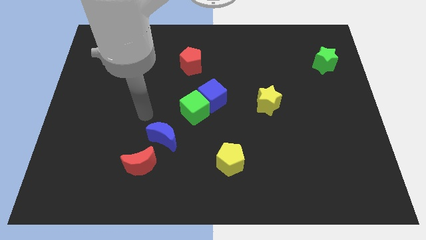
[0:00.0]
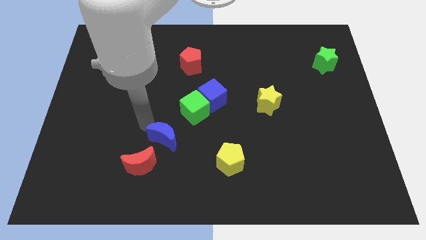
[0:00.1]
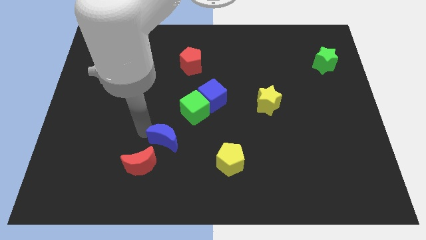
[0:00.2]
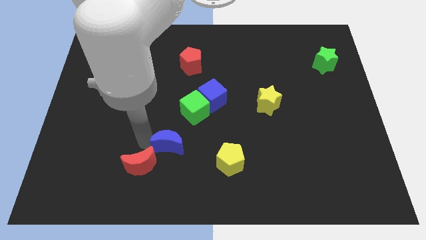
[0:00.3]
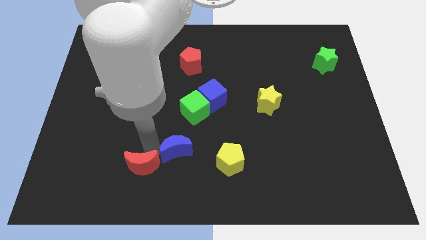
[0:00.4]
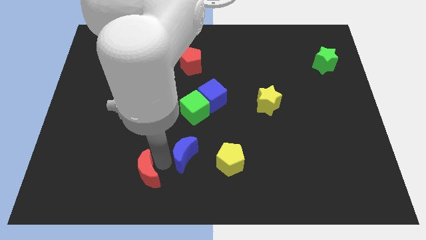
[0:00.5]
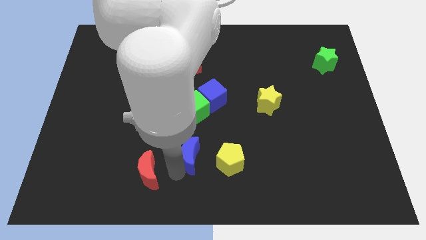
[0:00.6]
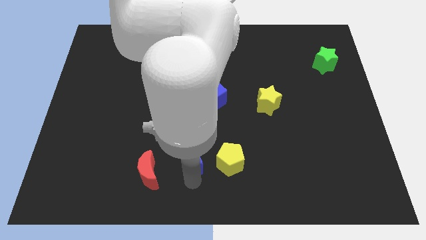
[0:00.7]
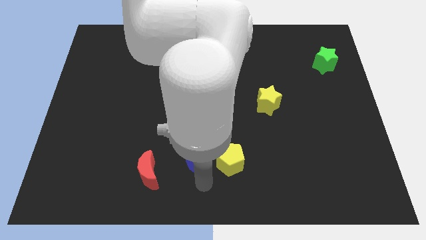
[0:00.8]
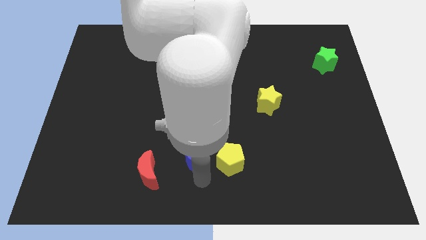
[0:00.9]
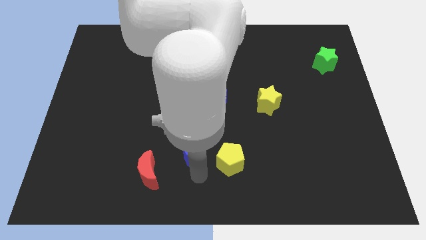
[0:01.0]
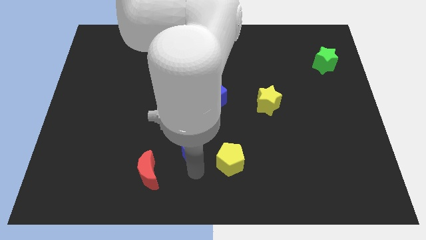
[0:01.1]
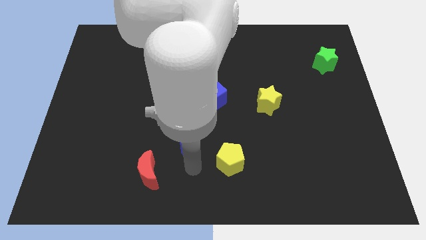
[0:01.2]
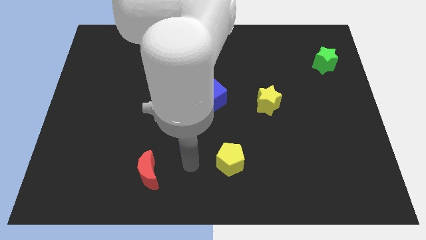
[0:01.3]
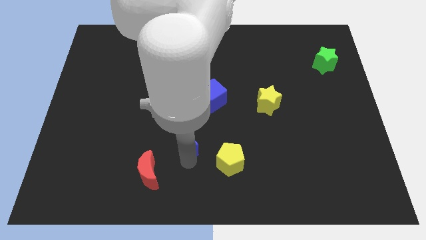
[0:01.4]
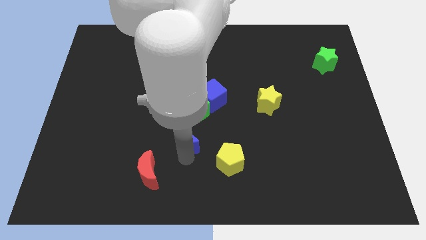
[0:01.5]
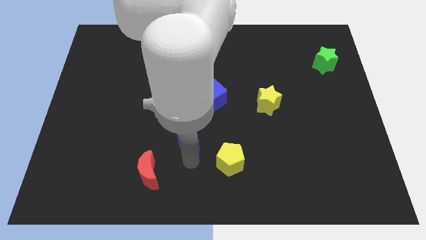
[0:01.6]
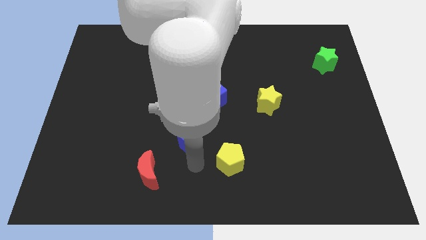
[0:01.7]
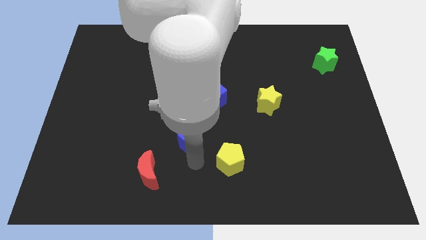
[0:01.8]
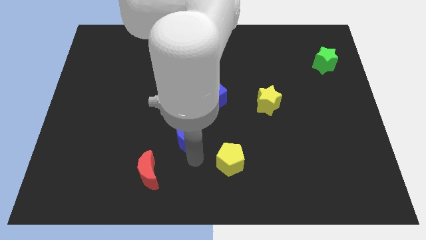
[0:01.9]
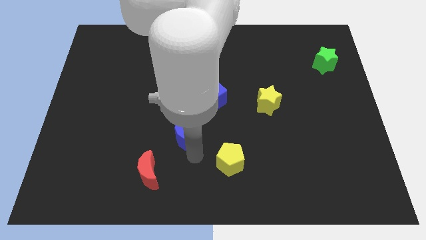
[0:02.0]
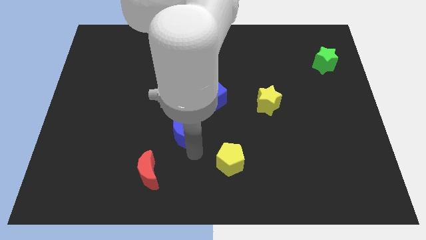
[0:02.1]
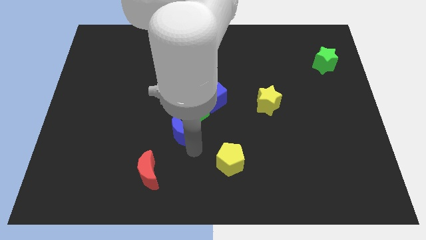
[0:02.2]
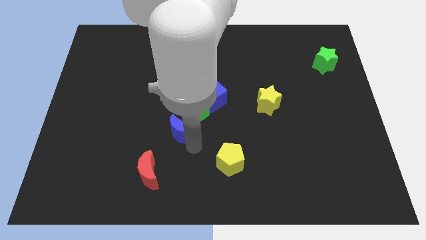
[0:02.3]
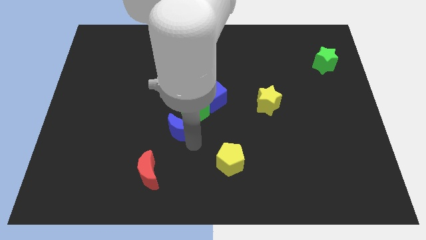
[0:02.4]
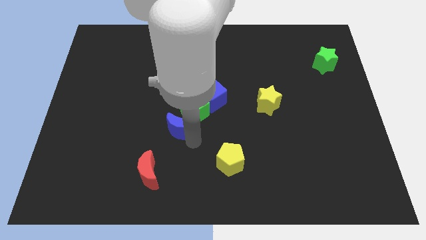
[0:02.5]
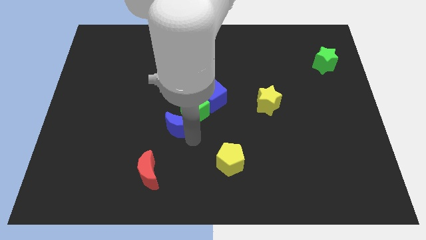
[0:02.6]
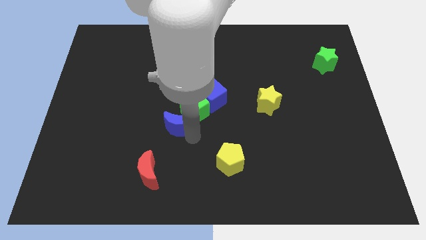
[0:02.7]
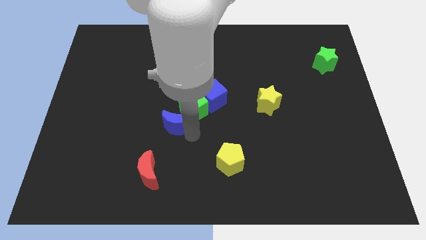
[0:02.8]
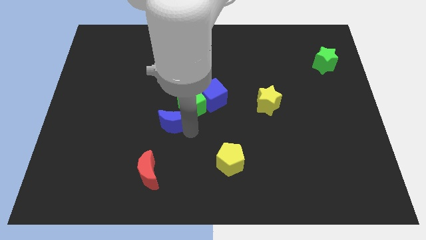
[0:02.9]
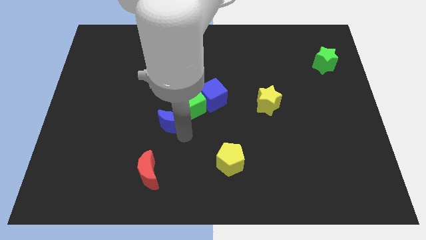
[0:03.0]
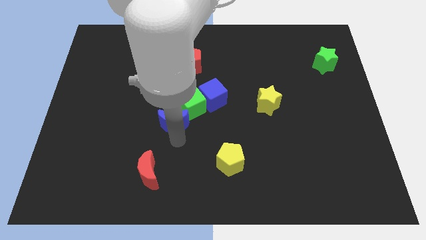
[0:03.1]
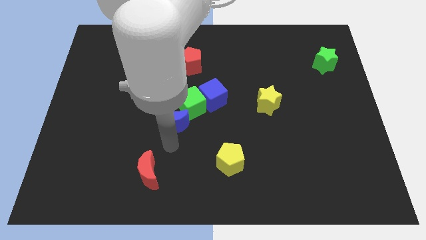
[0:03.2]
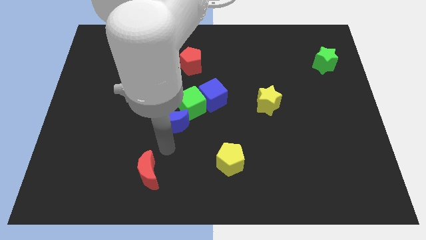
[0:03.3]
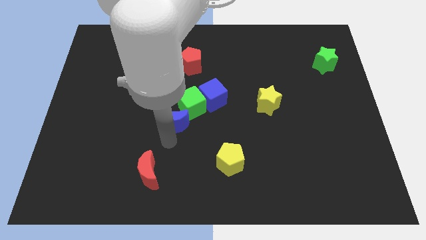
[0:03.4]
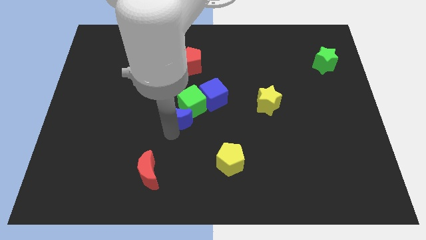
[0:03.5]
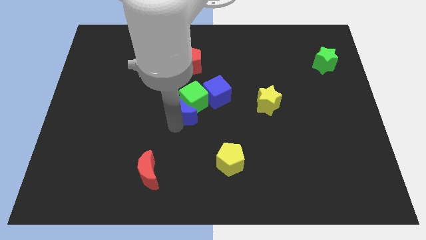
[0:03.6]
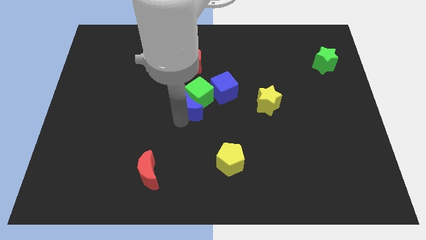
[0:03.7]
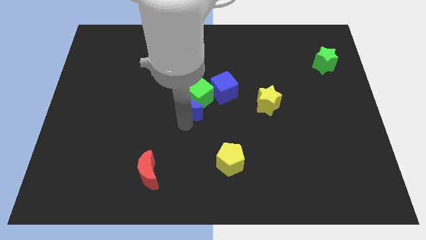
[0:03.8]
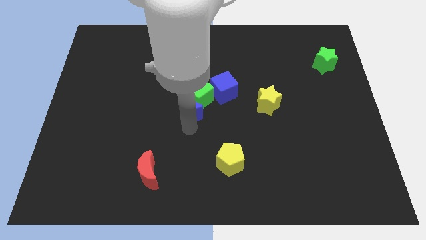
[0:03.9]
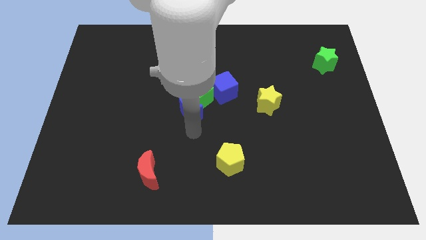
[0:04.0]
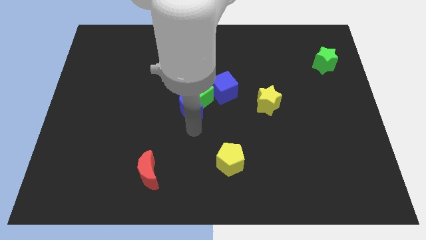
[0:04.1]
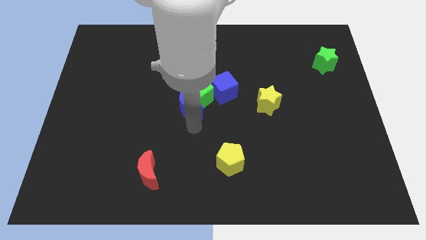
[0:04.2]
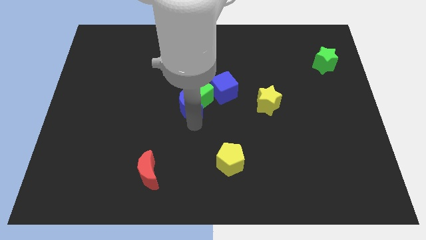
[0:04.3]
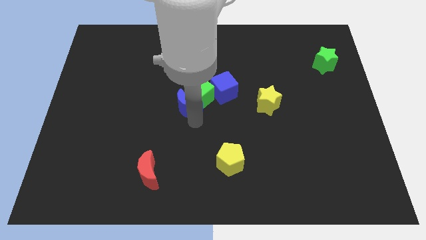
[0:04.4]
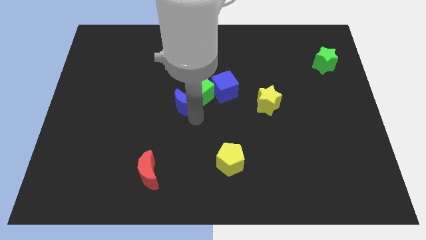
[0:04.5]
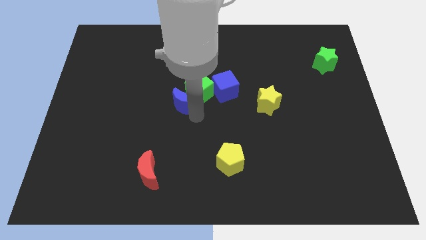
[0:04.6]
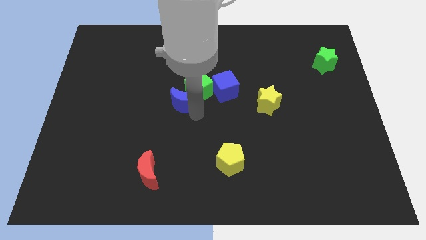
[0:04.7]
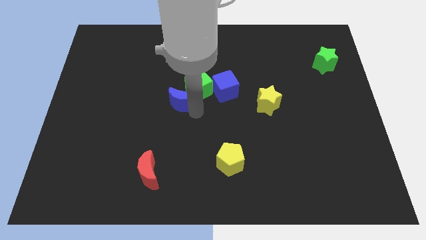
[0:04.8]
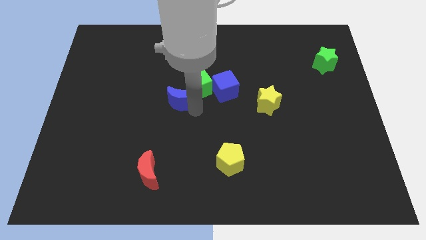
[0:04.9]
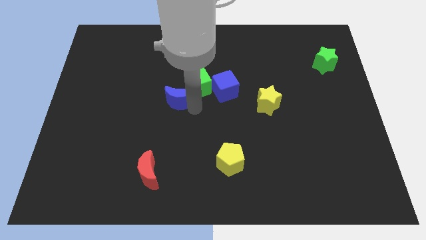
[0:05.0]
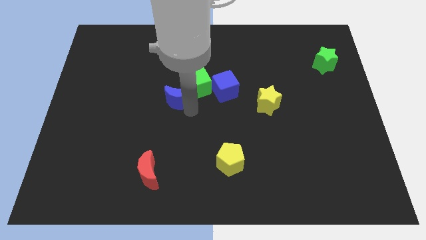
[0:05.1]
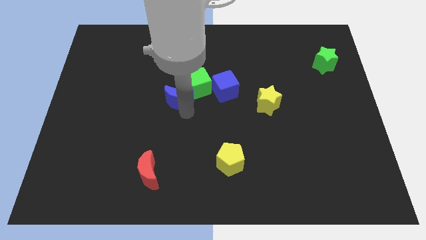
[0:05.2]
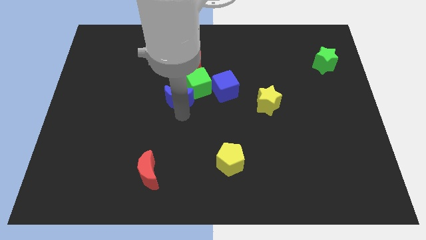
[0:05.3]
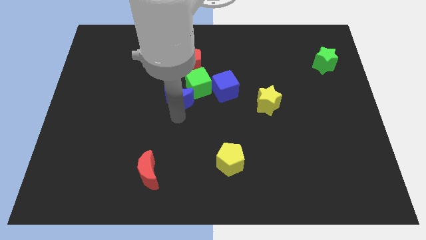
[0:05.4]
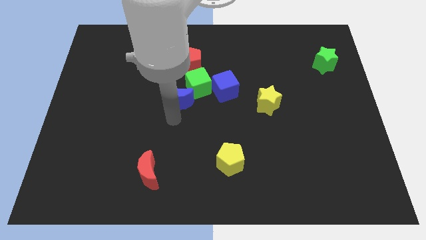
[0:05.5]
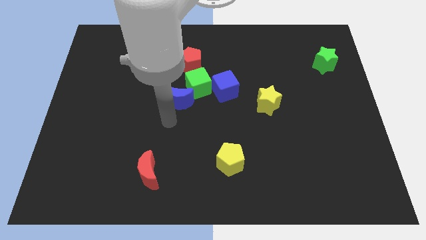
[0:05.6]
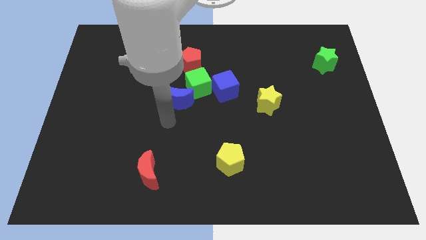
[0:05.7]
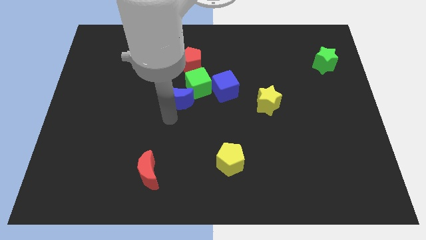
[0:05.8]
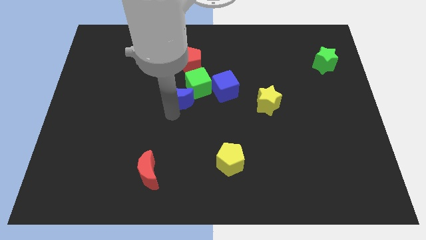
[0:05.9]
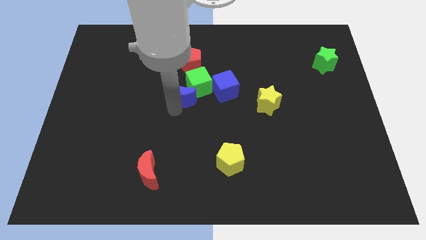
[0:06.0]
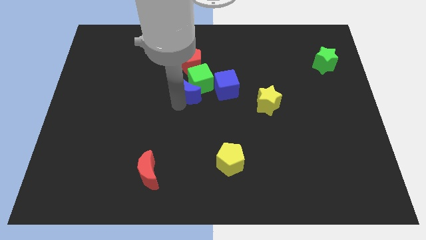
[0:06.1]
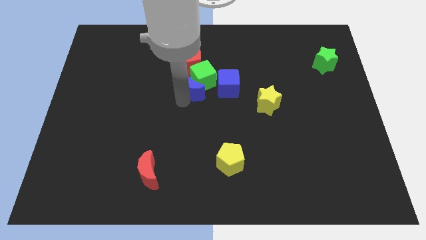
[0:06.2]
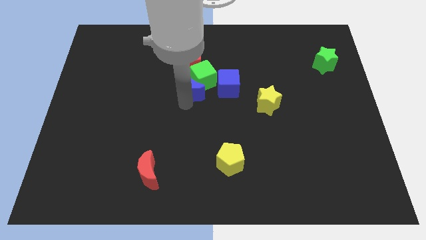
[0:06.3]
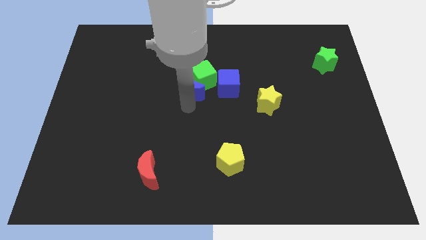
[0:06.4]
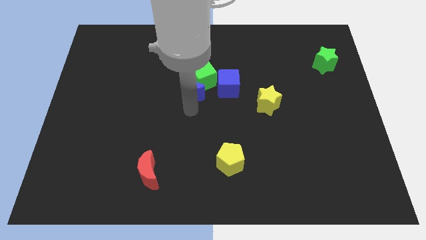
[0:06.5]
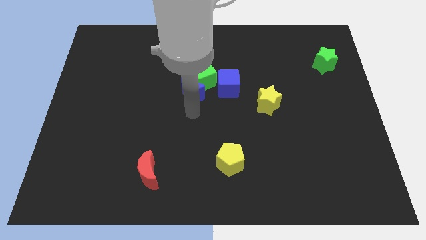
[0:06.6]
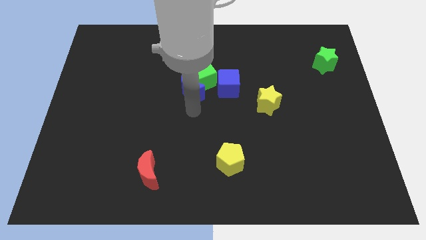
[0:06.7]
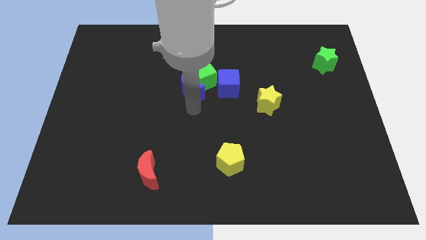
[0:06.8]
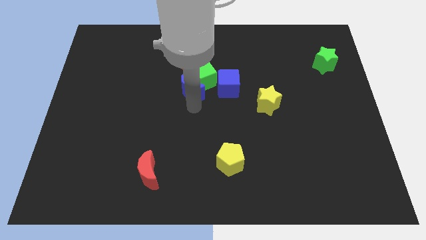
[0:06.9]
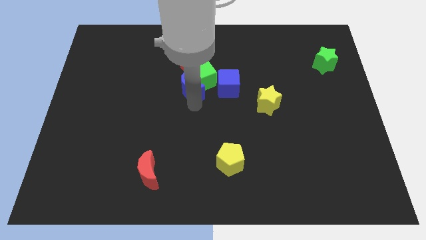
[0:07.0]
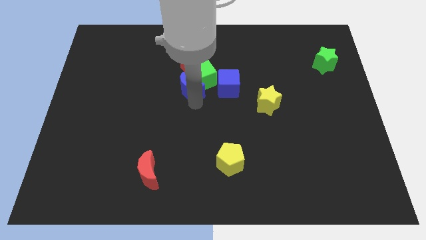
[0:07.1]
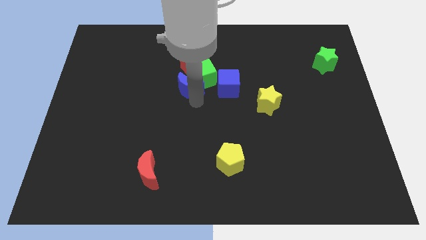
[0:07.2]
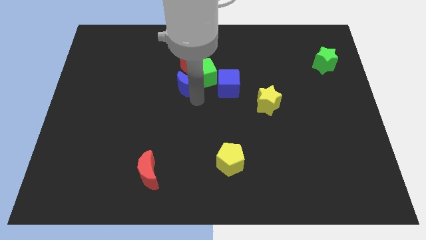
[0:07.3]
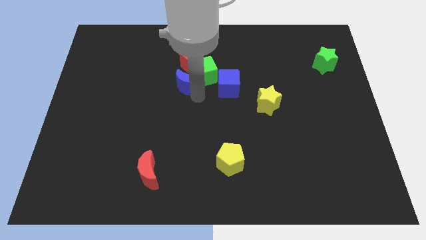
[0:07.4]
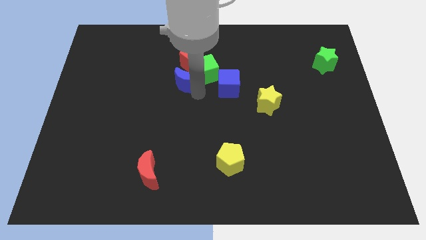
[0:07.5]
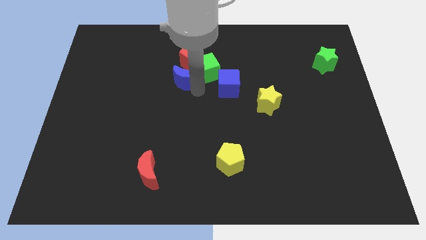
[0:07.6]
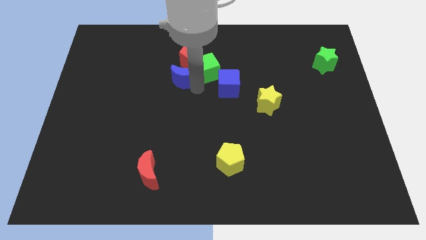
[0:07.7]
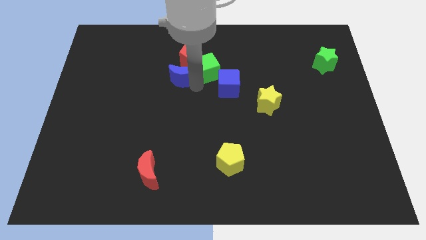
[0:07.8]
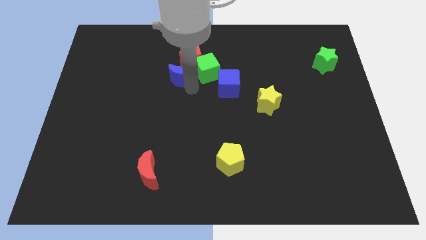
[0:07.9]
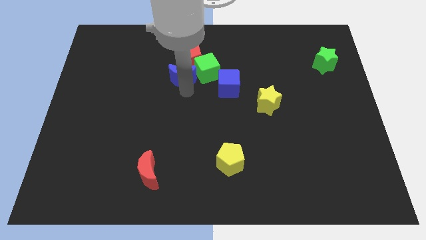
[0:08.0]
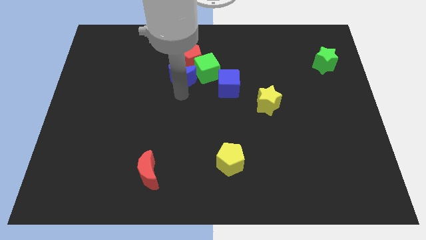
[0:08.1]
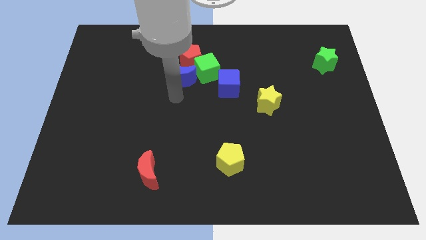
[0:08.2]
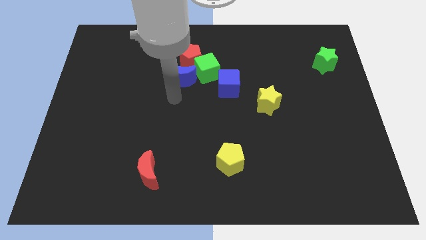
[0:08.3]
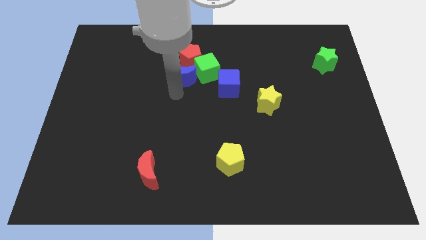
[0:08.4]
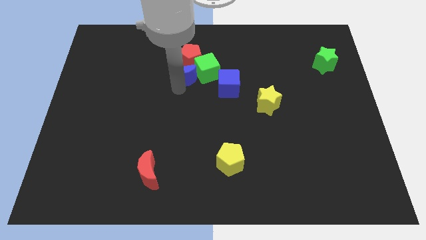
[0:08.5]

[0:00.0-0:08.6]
slide the blue moon towards the red pentagon
